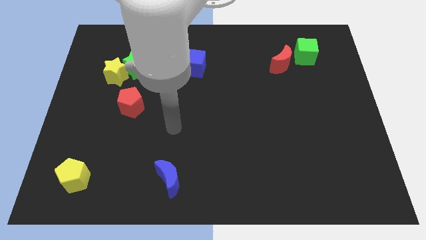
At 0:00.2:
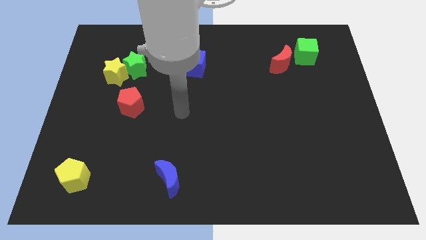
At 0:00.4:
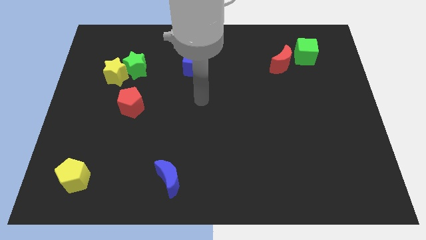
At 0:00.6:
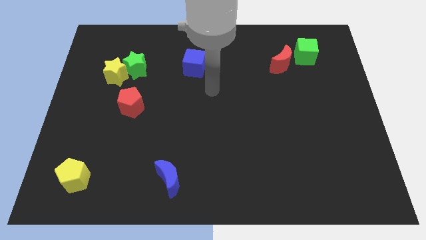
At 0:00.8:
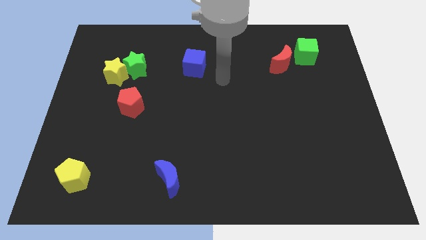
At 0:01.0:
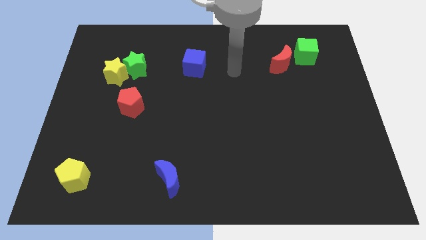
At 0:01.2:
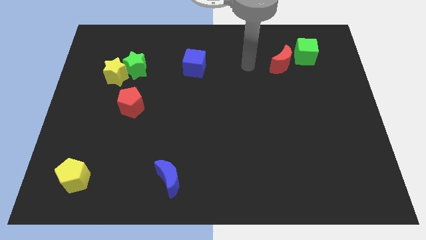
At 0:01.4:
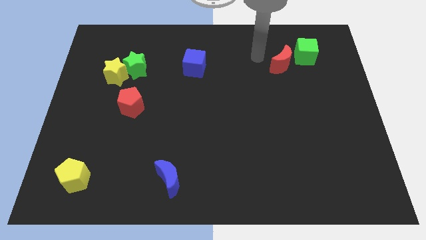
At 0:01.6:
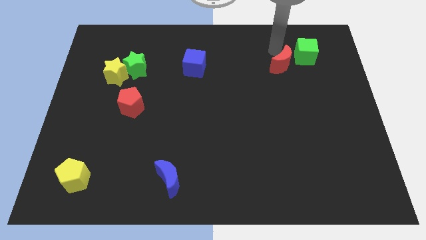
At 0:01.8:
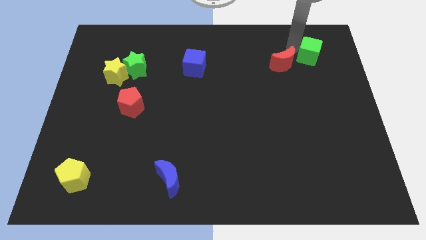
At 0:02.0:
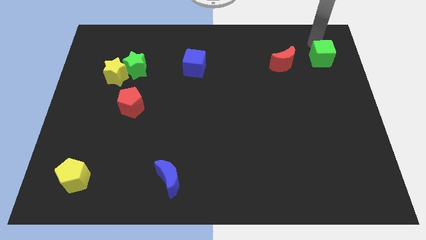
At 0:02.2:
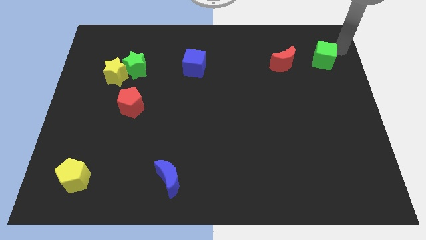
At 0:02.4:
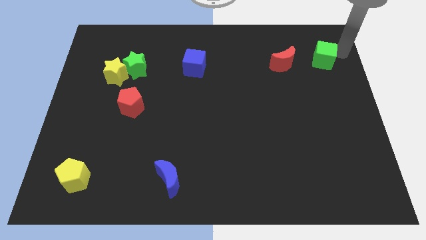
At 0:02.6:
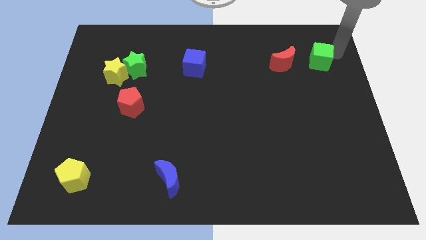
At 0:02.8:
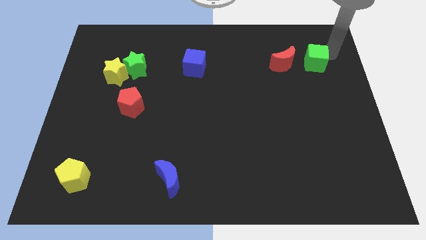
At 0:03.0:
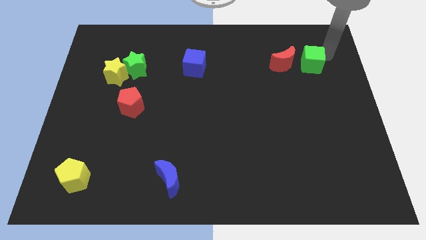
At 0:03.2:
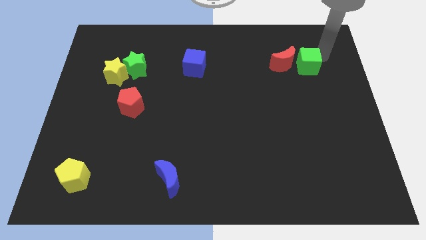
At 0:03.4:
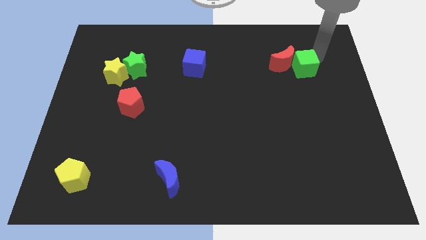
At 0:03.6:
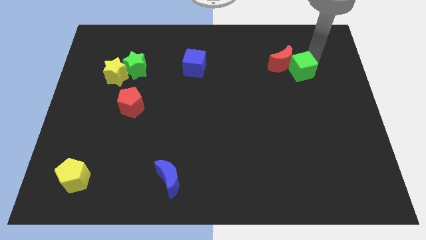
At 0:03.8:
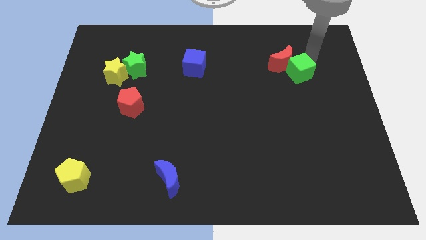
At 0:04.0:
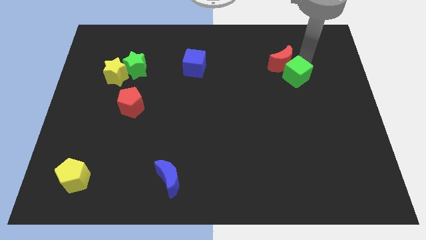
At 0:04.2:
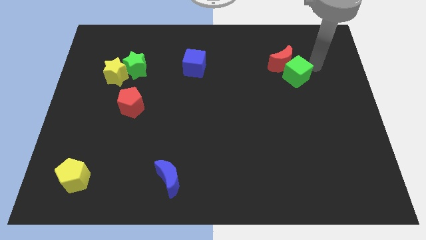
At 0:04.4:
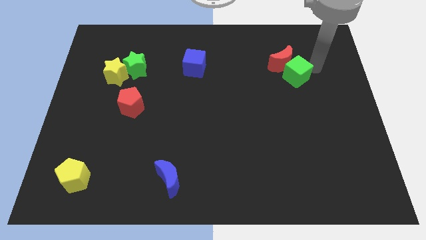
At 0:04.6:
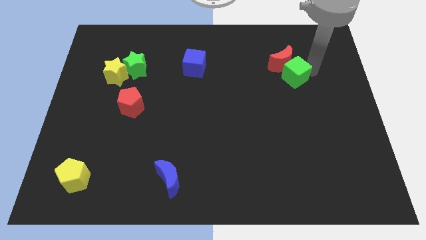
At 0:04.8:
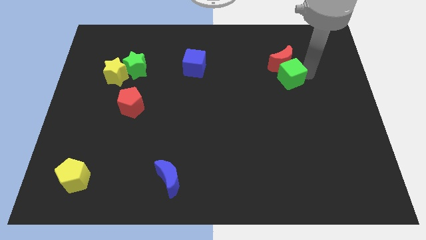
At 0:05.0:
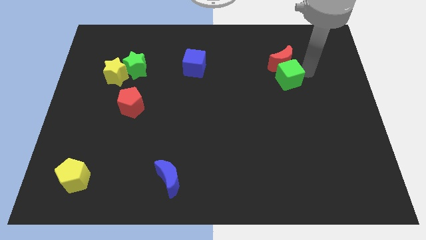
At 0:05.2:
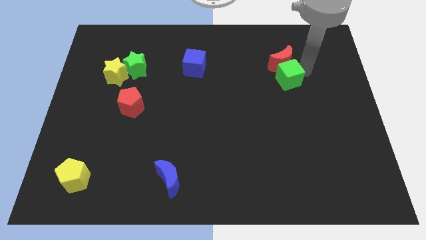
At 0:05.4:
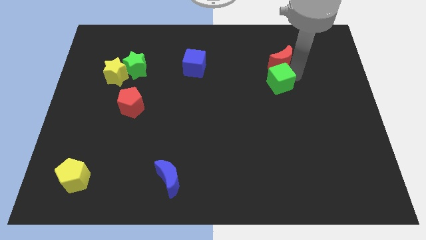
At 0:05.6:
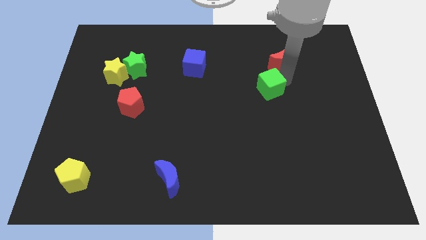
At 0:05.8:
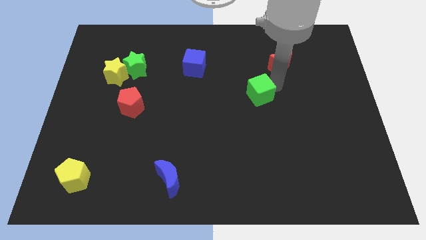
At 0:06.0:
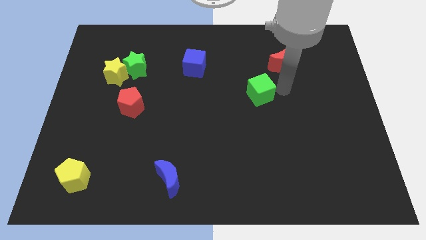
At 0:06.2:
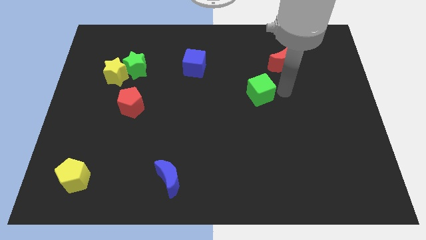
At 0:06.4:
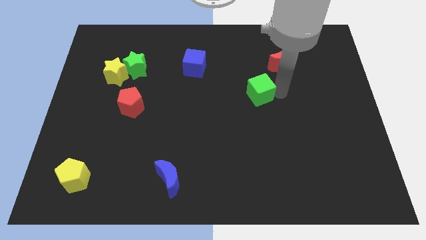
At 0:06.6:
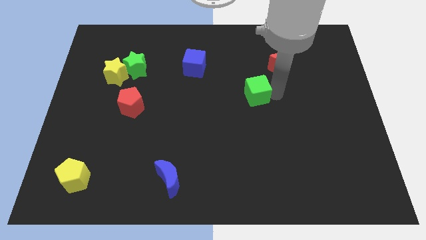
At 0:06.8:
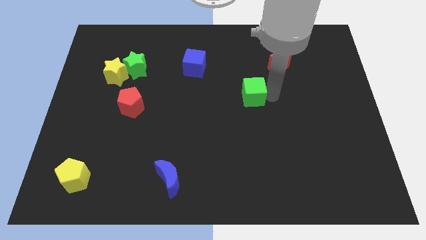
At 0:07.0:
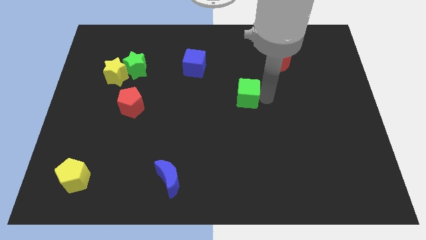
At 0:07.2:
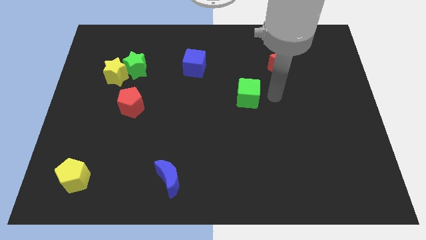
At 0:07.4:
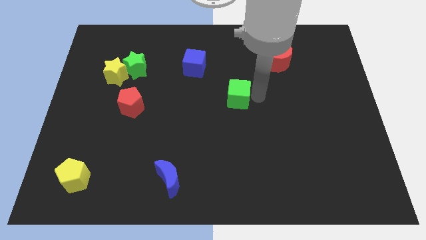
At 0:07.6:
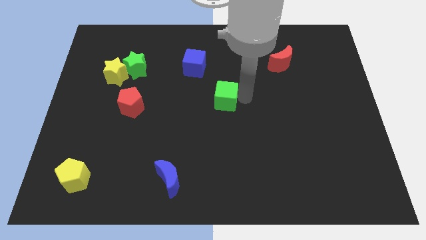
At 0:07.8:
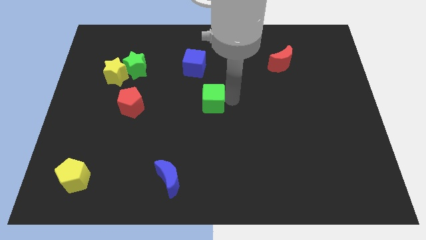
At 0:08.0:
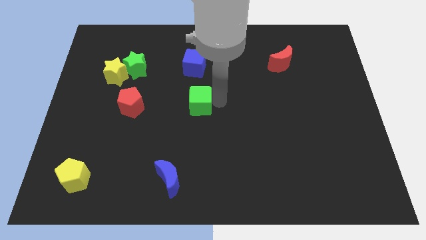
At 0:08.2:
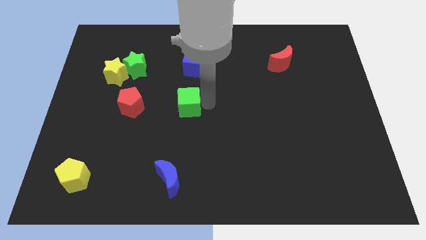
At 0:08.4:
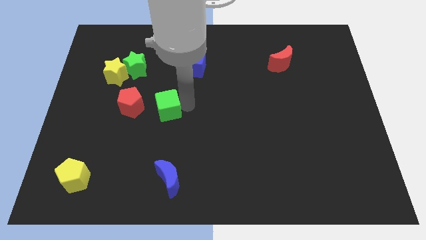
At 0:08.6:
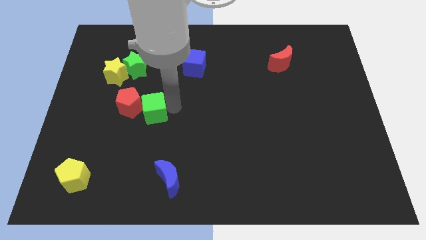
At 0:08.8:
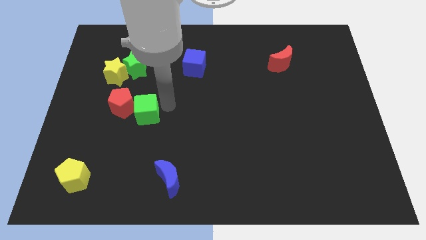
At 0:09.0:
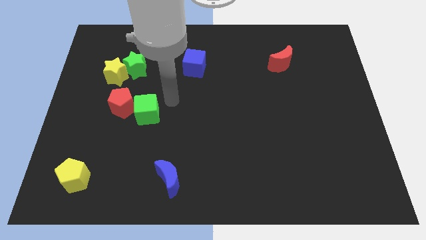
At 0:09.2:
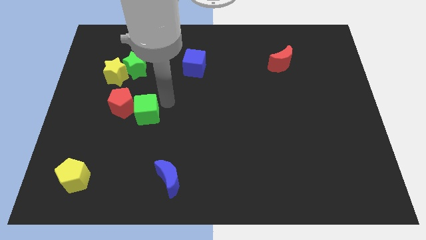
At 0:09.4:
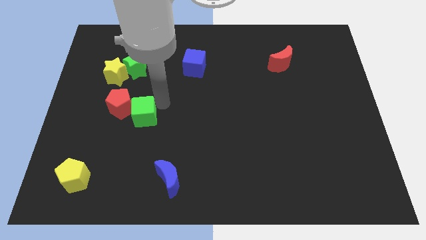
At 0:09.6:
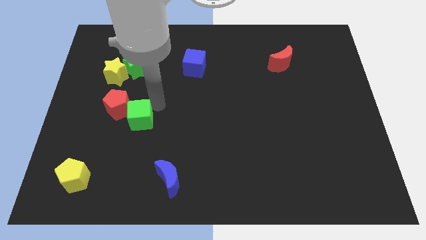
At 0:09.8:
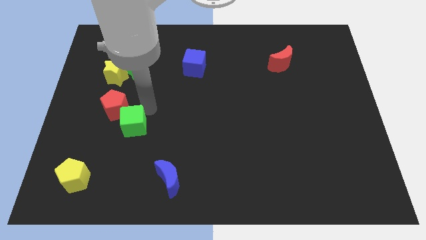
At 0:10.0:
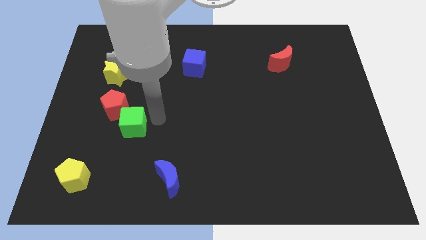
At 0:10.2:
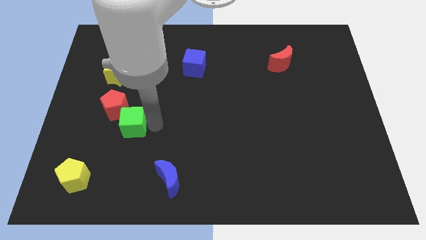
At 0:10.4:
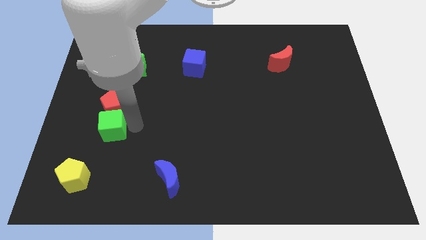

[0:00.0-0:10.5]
push the green cube diagonally down and to the left of the red pentagon

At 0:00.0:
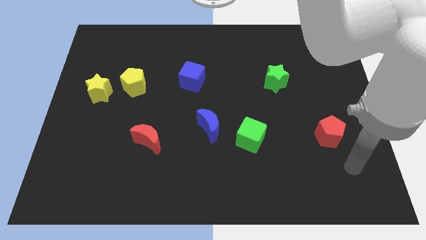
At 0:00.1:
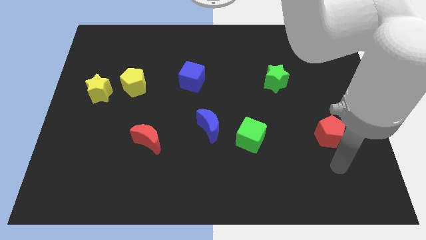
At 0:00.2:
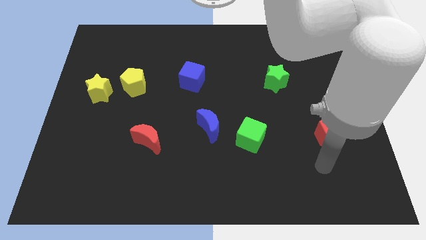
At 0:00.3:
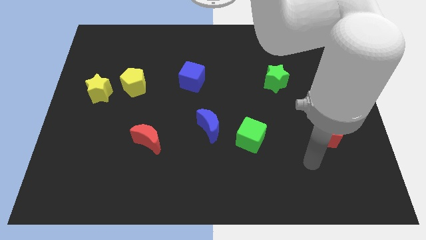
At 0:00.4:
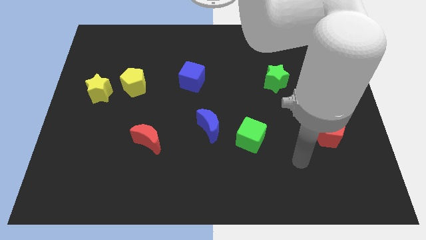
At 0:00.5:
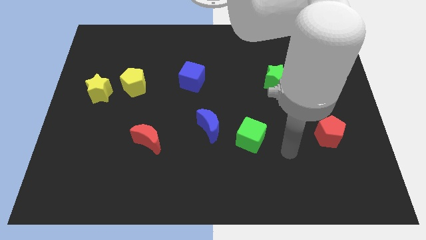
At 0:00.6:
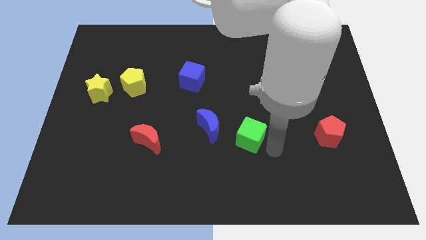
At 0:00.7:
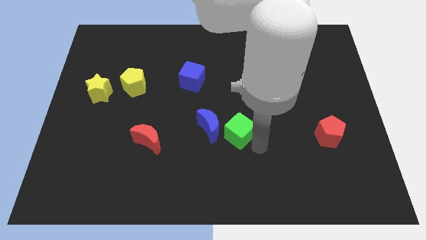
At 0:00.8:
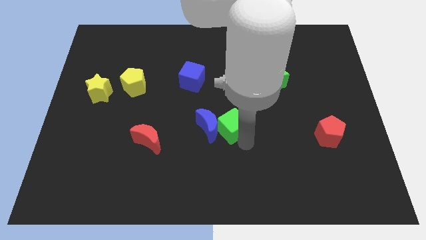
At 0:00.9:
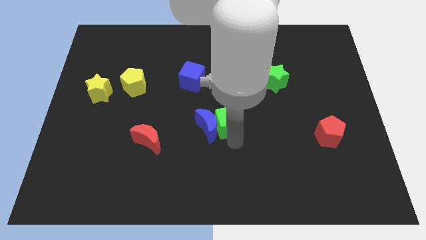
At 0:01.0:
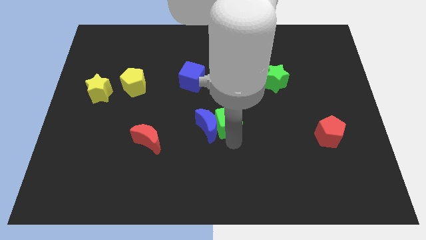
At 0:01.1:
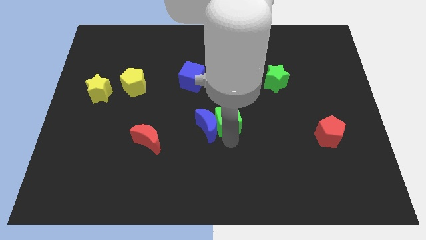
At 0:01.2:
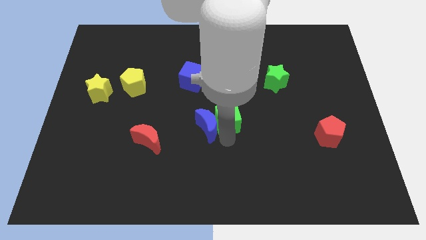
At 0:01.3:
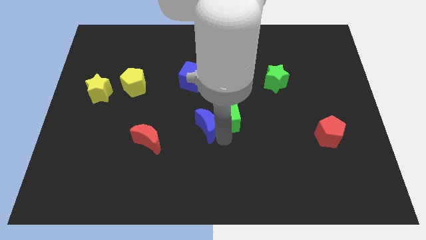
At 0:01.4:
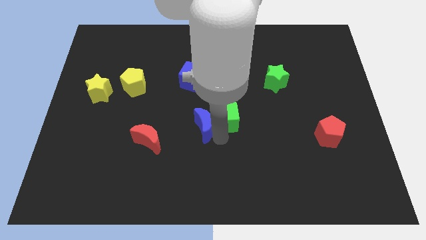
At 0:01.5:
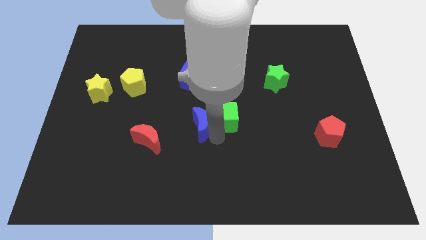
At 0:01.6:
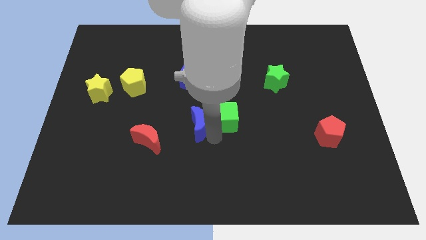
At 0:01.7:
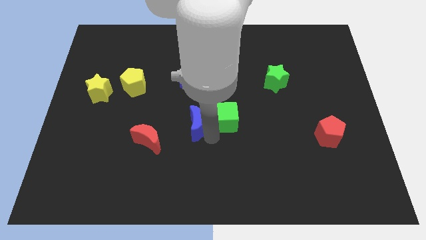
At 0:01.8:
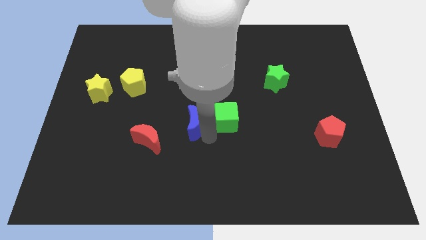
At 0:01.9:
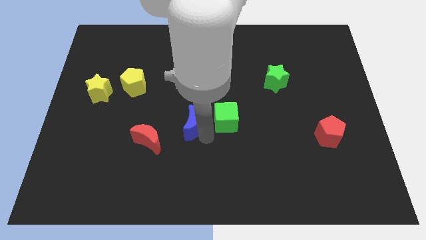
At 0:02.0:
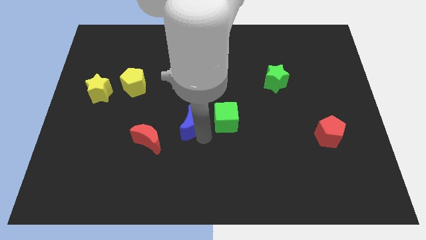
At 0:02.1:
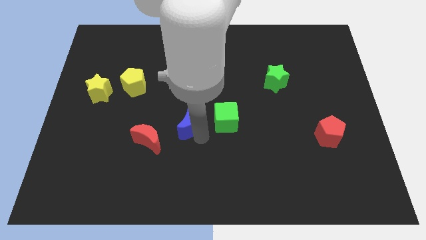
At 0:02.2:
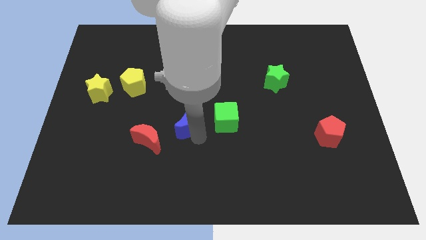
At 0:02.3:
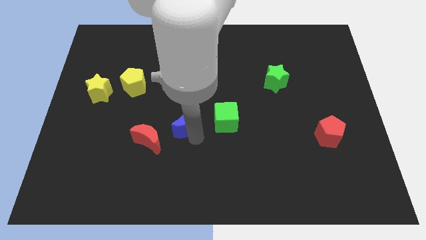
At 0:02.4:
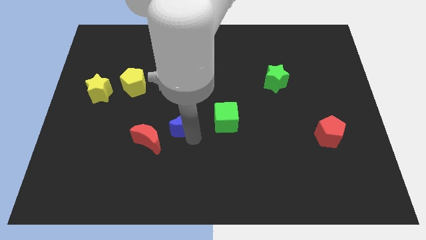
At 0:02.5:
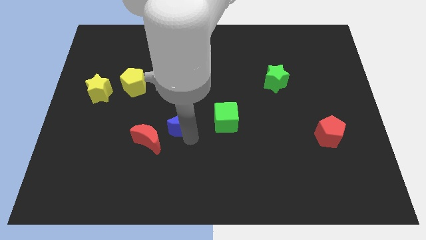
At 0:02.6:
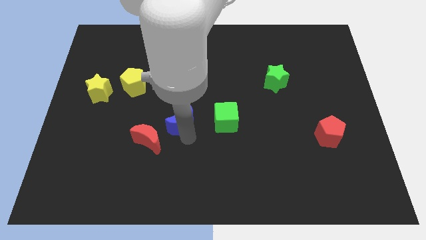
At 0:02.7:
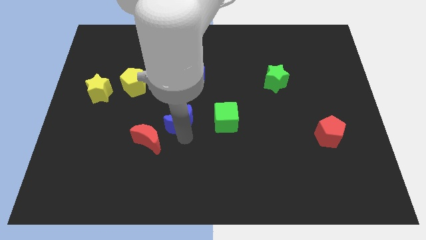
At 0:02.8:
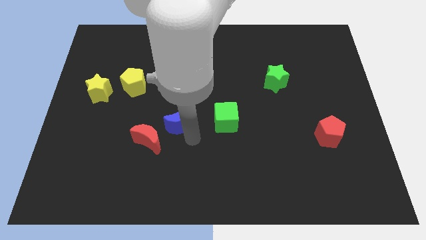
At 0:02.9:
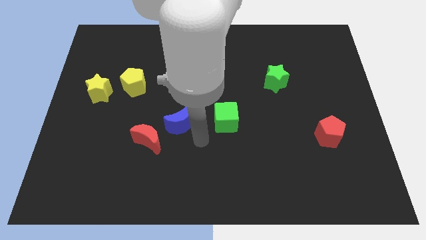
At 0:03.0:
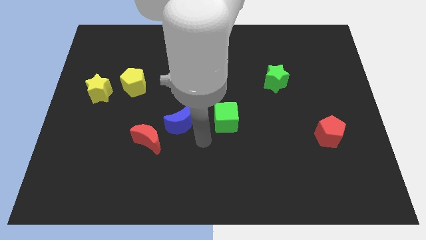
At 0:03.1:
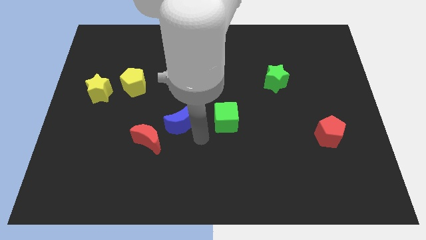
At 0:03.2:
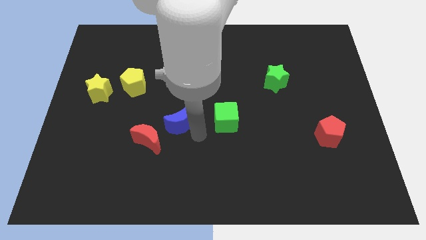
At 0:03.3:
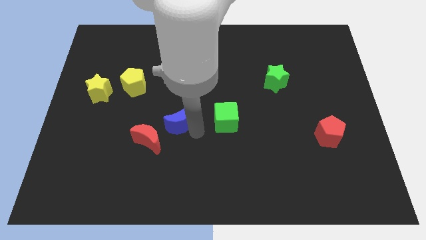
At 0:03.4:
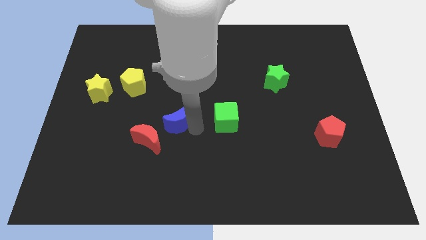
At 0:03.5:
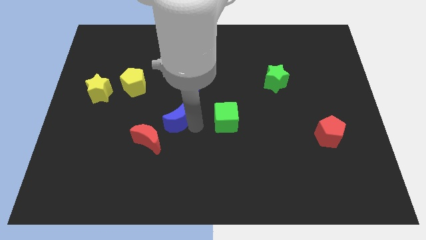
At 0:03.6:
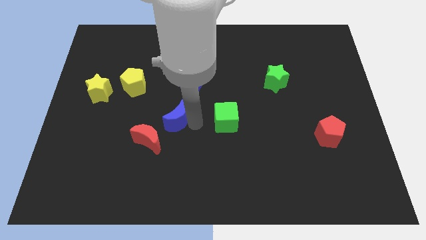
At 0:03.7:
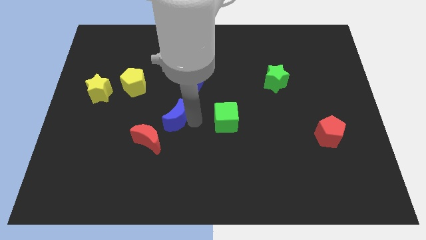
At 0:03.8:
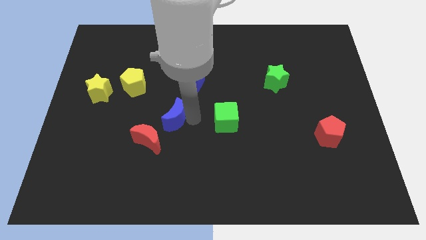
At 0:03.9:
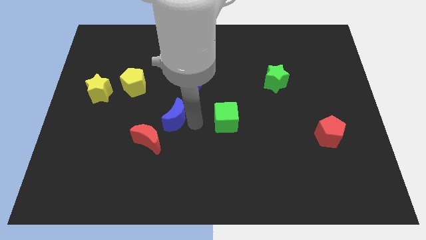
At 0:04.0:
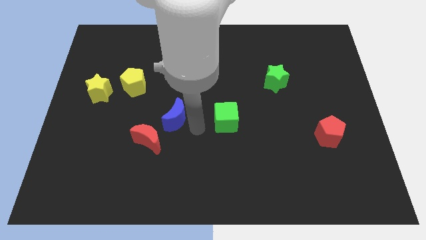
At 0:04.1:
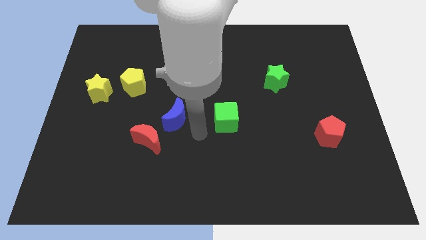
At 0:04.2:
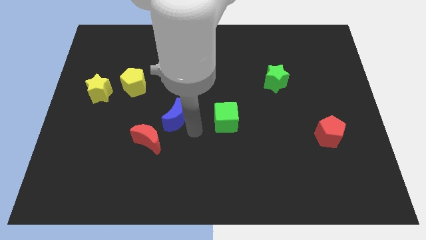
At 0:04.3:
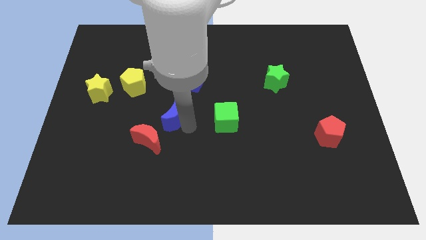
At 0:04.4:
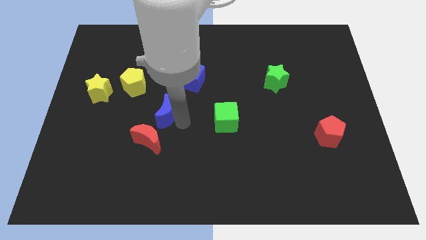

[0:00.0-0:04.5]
put the blue moon to the top side of the red moon
